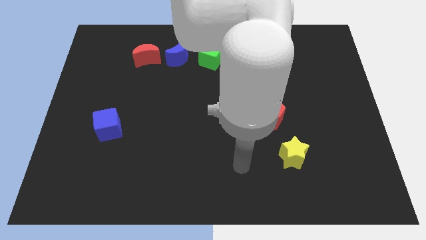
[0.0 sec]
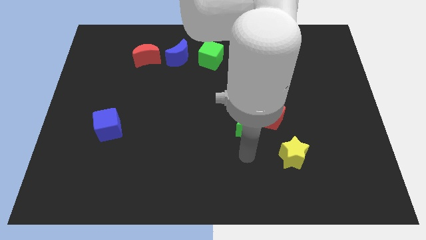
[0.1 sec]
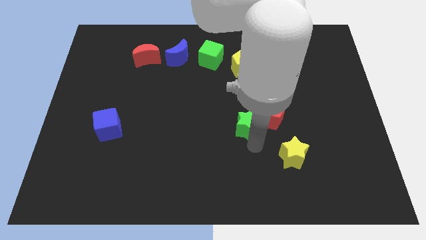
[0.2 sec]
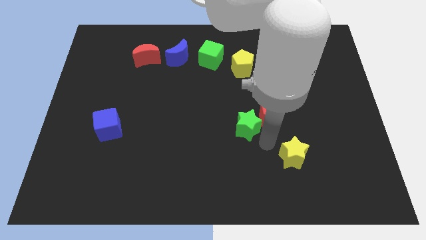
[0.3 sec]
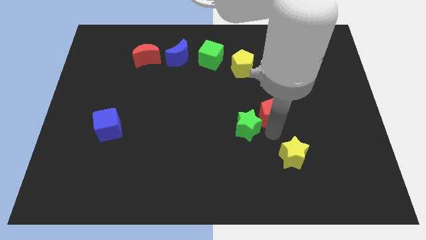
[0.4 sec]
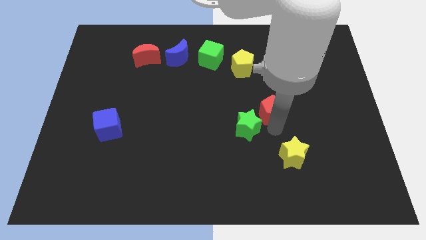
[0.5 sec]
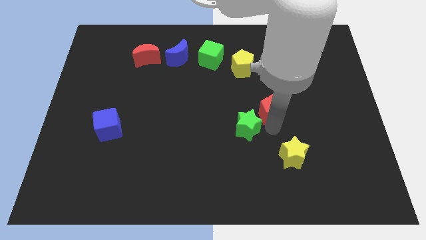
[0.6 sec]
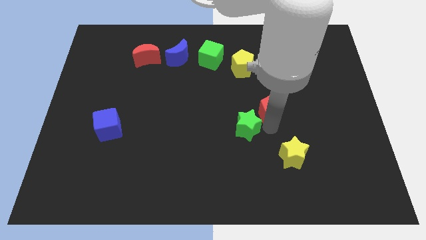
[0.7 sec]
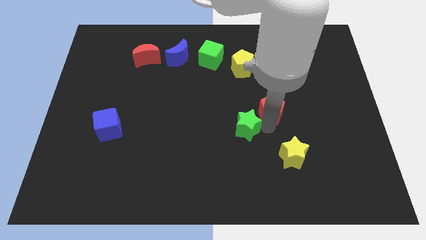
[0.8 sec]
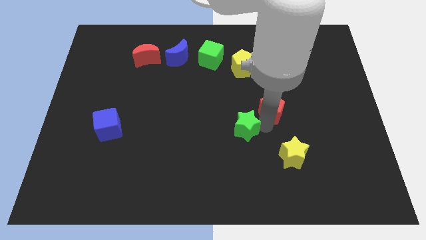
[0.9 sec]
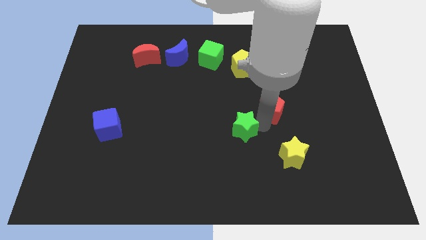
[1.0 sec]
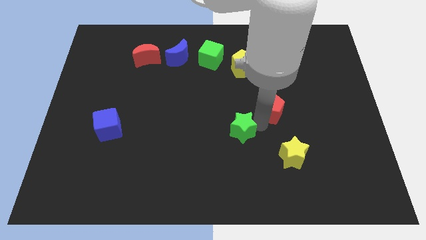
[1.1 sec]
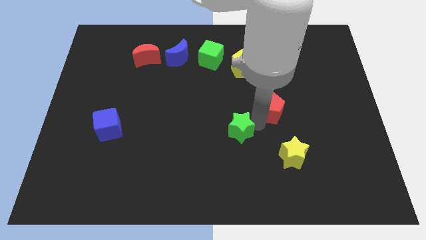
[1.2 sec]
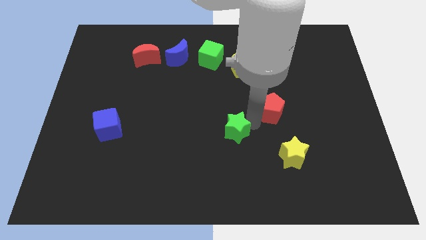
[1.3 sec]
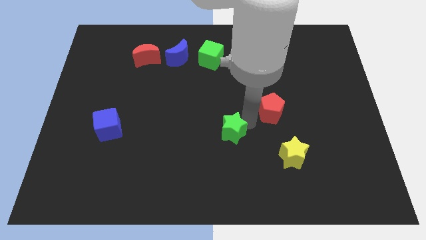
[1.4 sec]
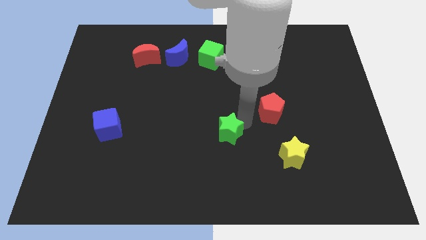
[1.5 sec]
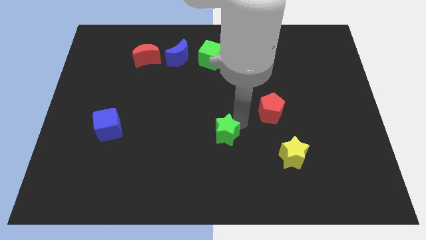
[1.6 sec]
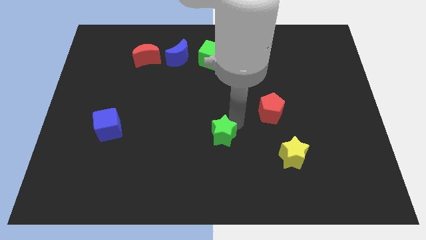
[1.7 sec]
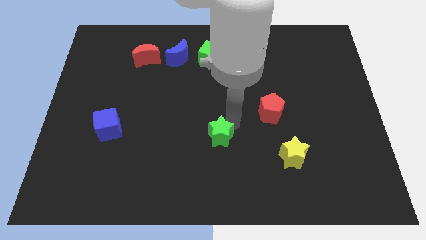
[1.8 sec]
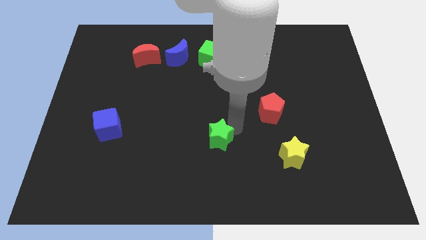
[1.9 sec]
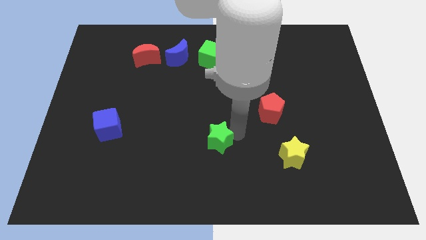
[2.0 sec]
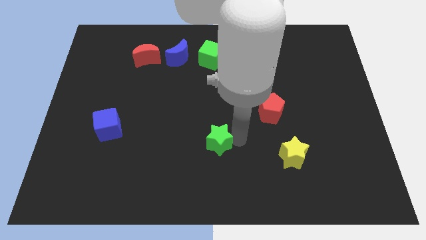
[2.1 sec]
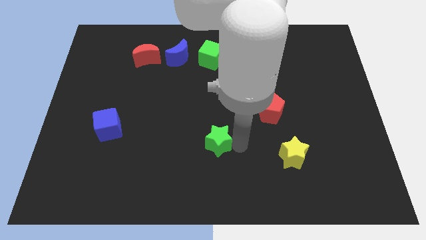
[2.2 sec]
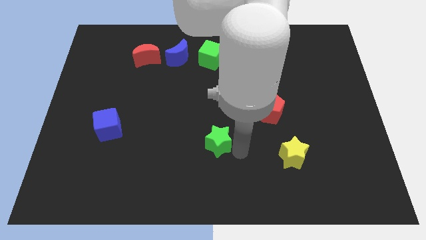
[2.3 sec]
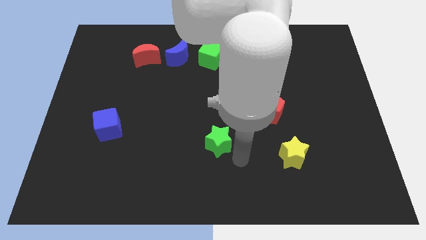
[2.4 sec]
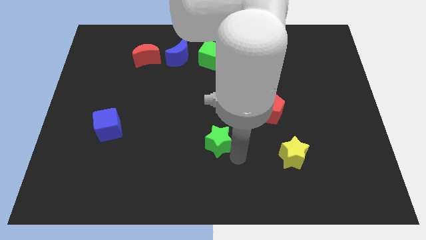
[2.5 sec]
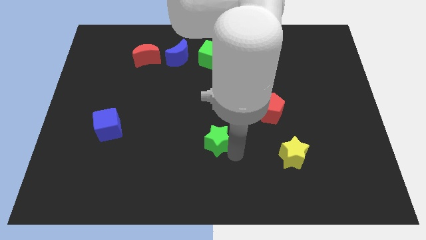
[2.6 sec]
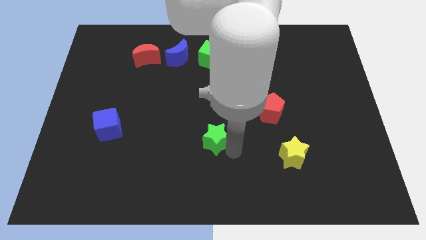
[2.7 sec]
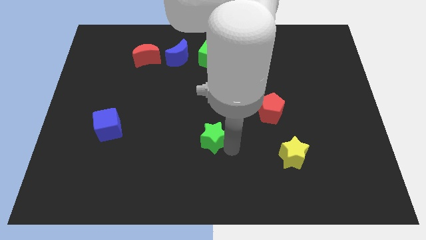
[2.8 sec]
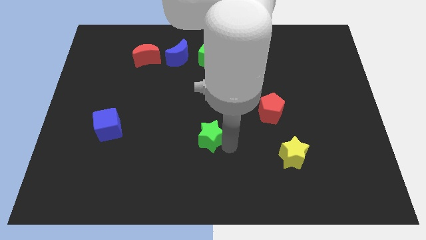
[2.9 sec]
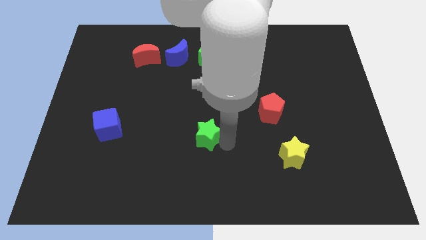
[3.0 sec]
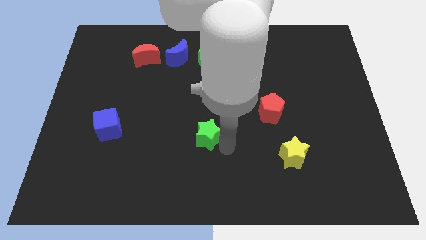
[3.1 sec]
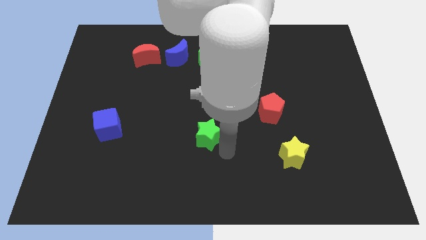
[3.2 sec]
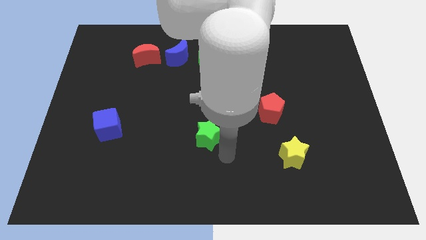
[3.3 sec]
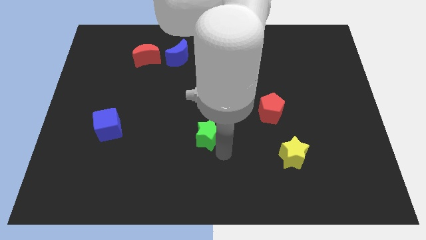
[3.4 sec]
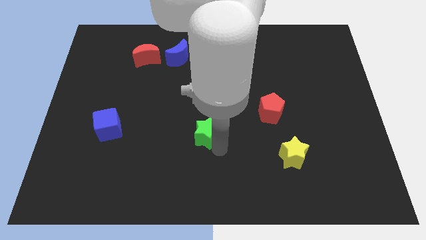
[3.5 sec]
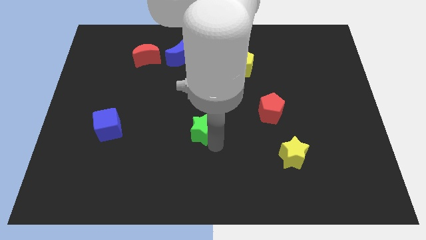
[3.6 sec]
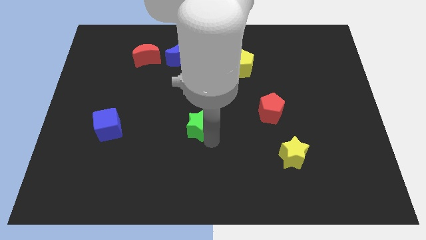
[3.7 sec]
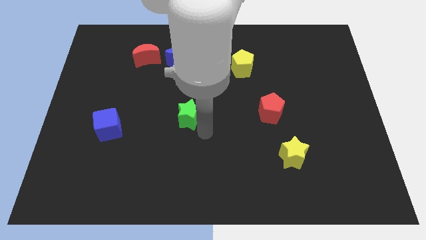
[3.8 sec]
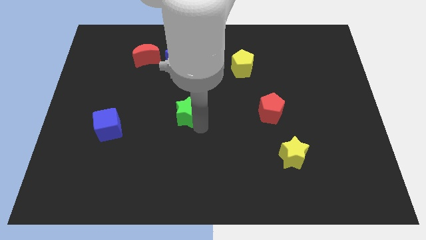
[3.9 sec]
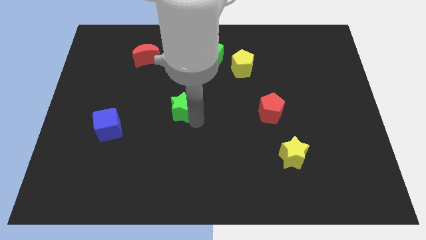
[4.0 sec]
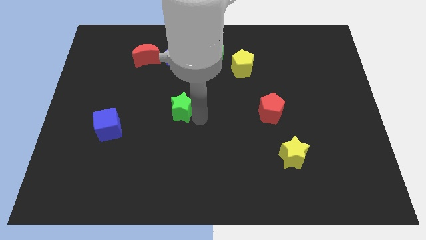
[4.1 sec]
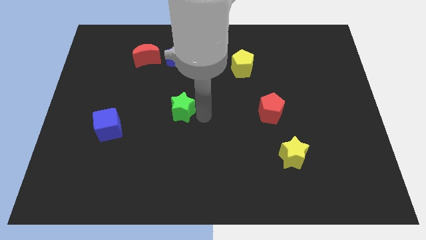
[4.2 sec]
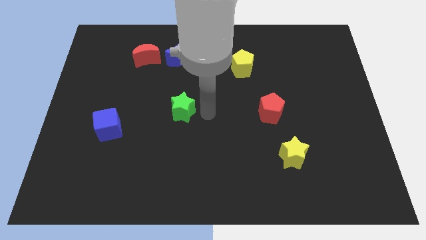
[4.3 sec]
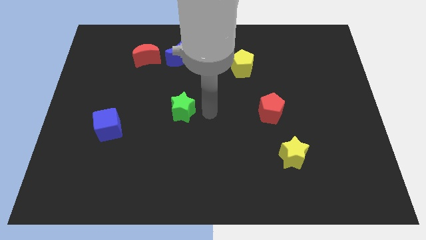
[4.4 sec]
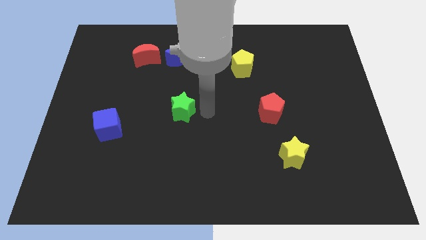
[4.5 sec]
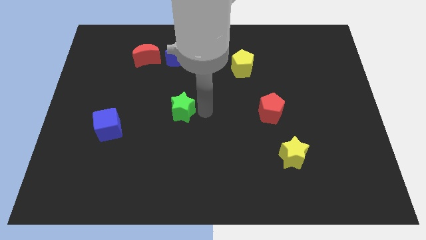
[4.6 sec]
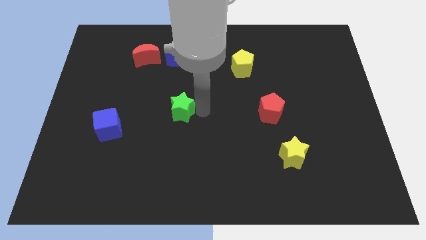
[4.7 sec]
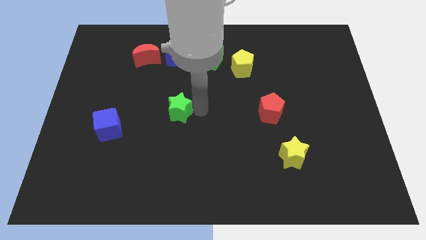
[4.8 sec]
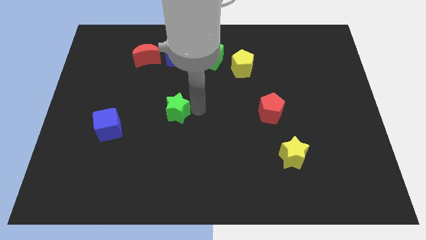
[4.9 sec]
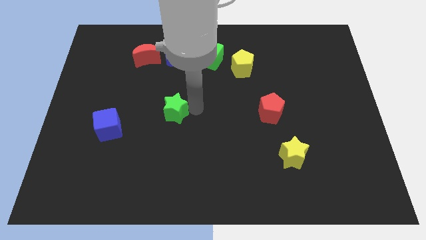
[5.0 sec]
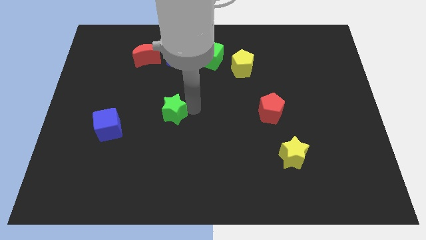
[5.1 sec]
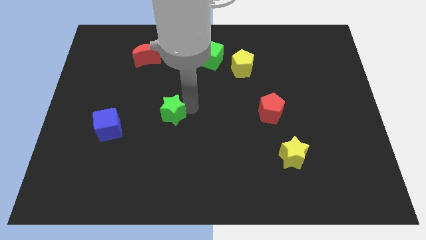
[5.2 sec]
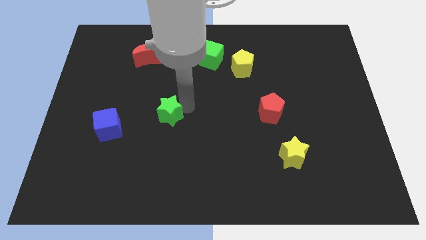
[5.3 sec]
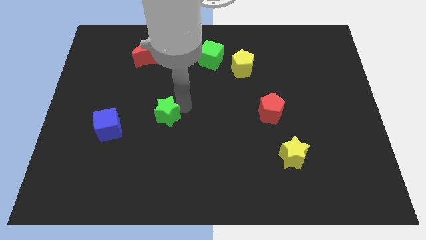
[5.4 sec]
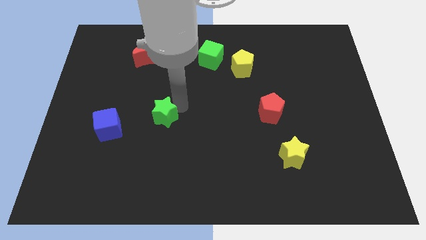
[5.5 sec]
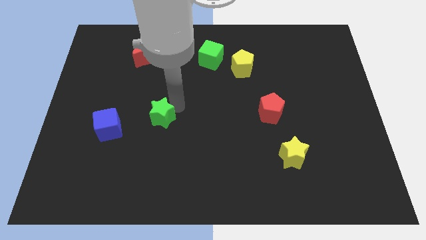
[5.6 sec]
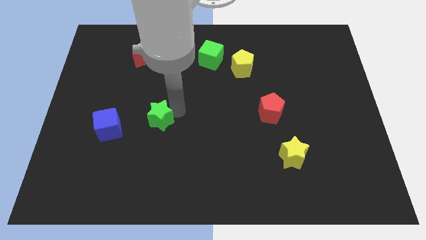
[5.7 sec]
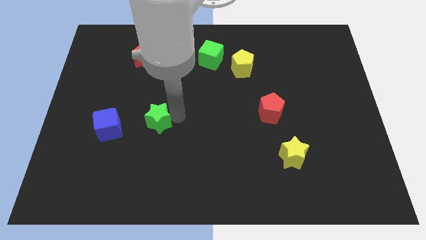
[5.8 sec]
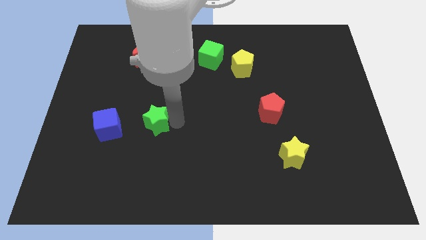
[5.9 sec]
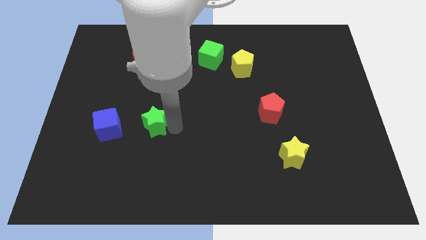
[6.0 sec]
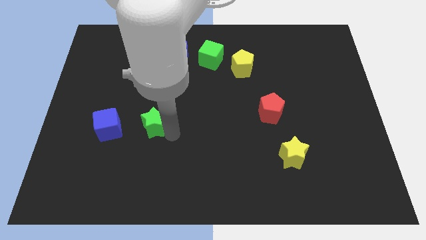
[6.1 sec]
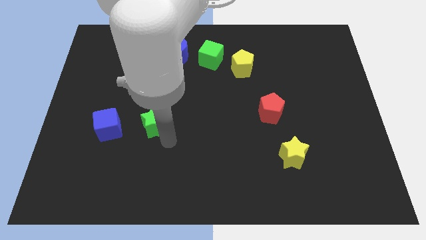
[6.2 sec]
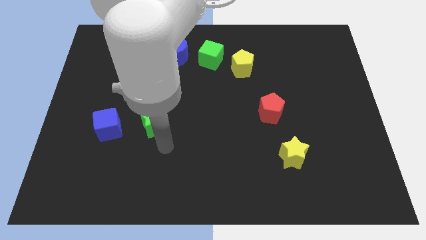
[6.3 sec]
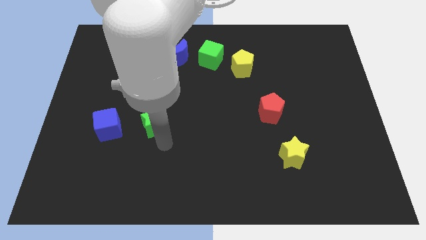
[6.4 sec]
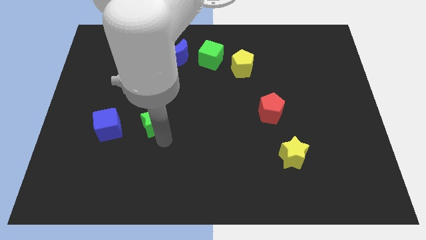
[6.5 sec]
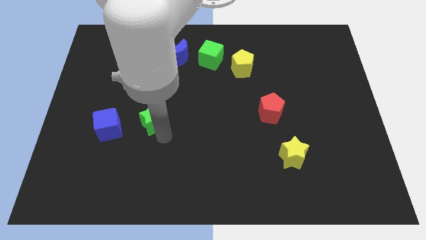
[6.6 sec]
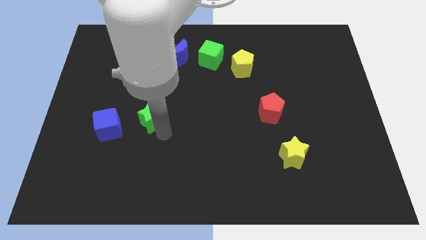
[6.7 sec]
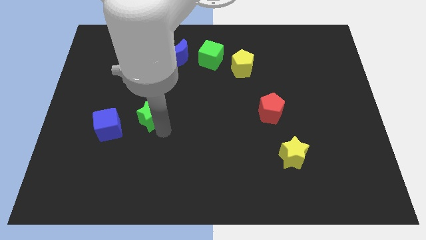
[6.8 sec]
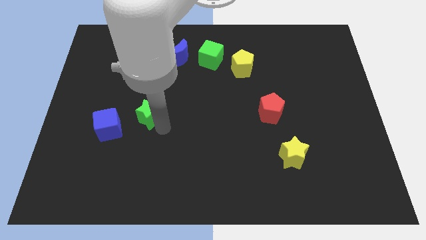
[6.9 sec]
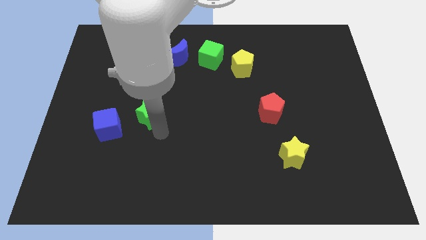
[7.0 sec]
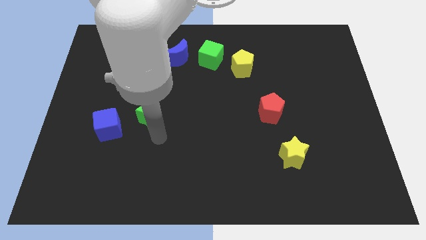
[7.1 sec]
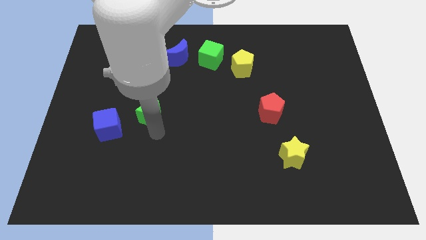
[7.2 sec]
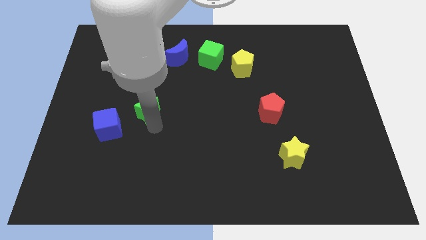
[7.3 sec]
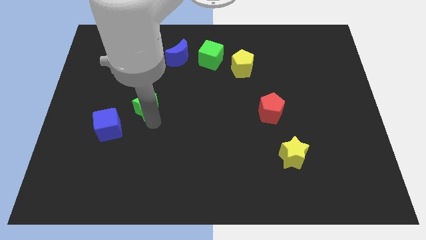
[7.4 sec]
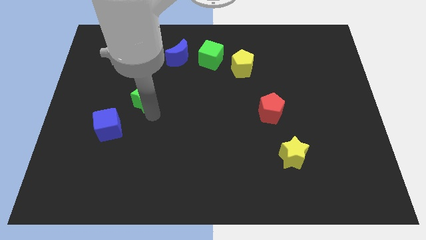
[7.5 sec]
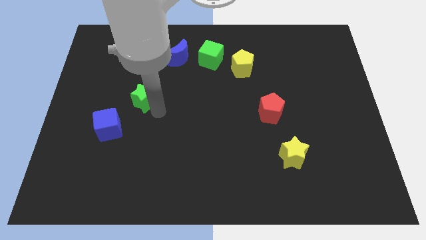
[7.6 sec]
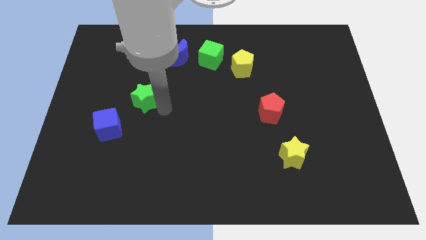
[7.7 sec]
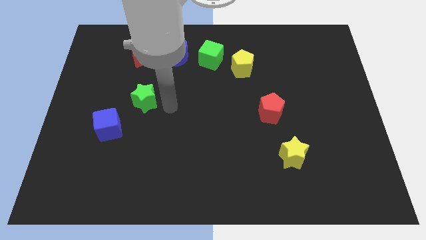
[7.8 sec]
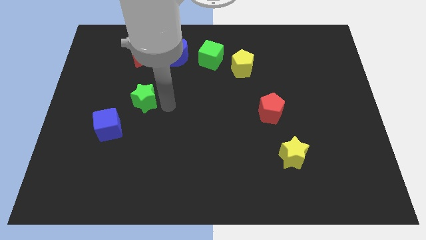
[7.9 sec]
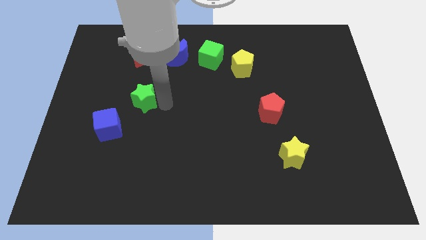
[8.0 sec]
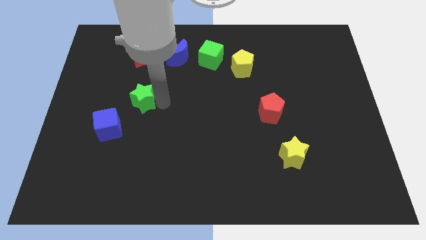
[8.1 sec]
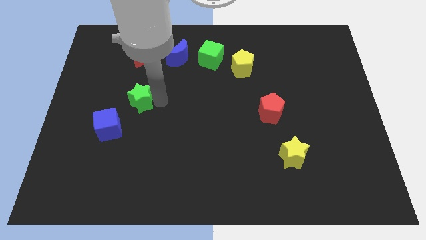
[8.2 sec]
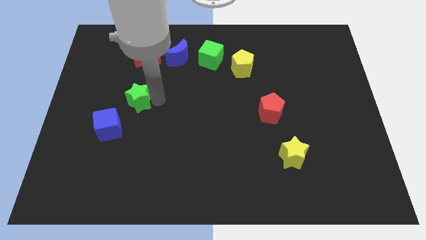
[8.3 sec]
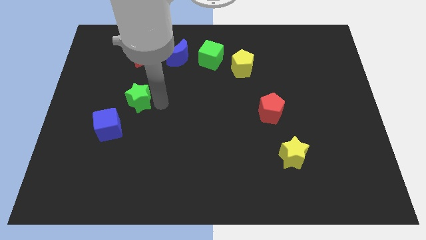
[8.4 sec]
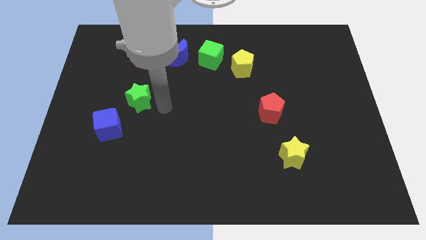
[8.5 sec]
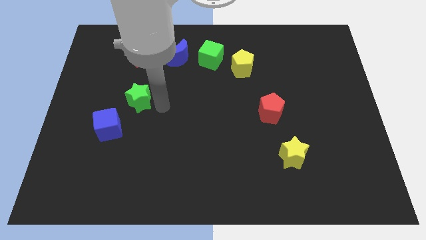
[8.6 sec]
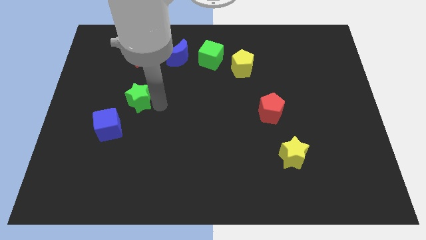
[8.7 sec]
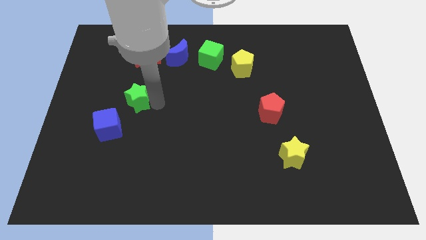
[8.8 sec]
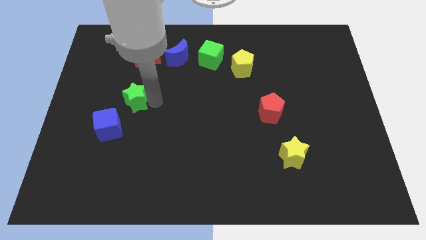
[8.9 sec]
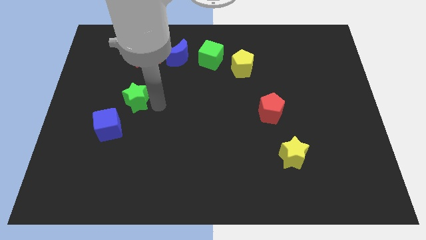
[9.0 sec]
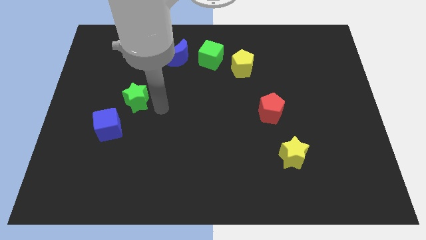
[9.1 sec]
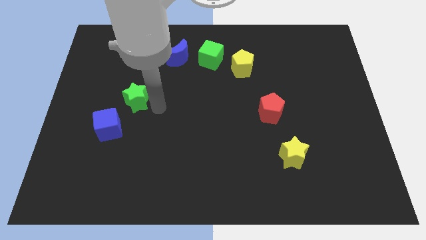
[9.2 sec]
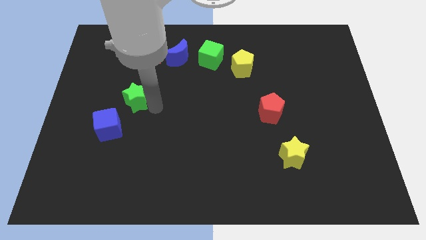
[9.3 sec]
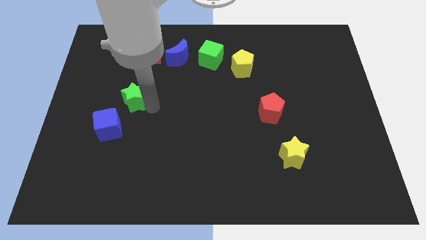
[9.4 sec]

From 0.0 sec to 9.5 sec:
push the green star to the top side of the blue cube
